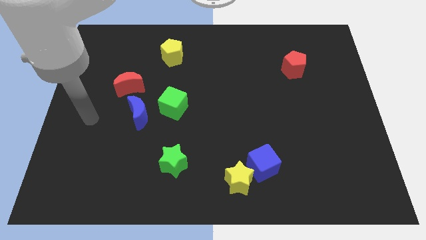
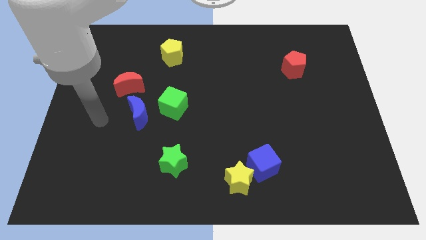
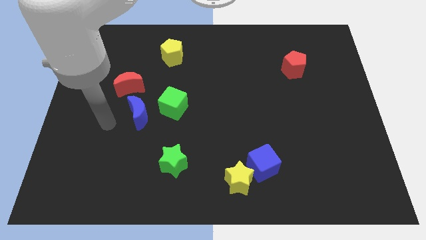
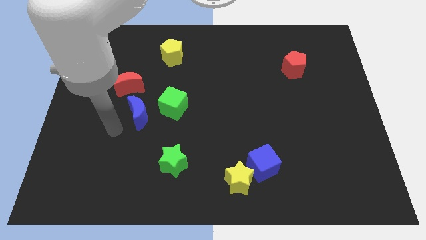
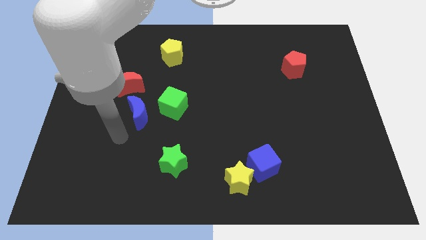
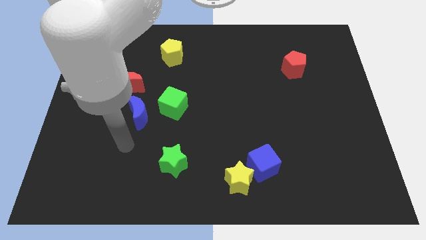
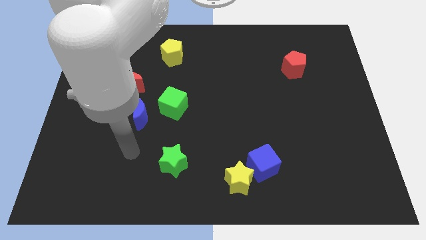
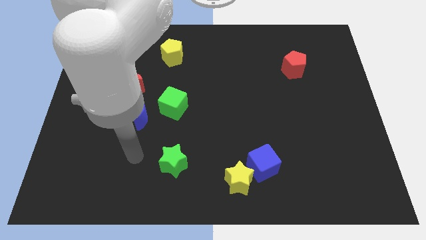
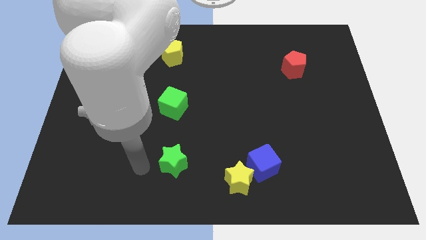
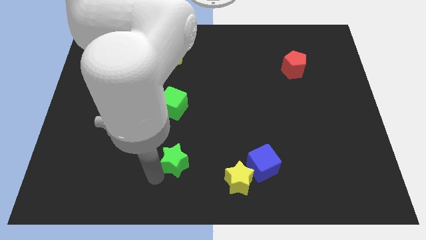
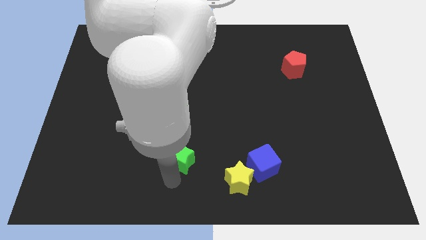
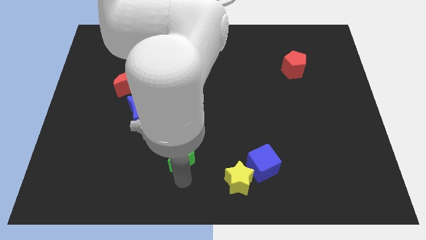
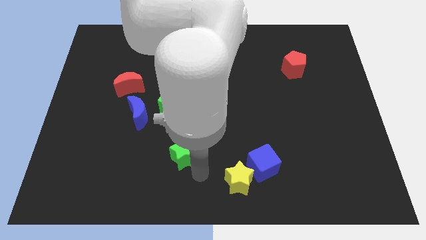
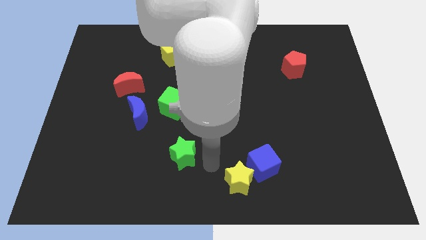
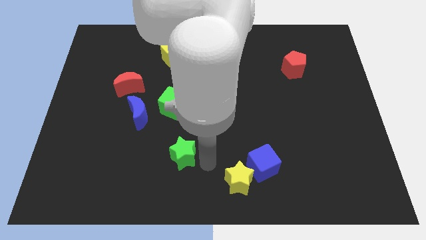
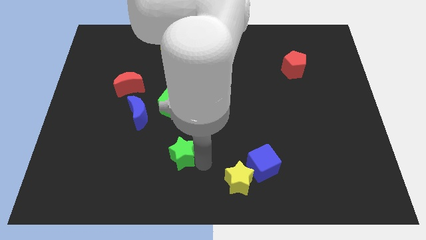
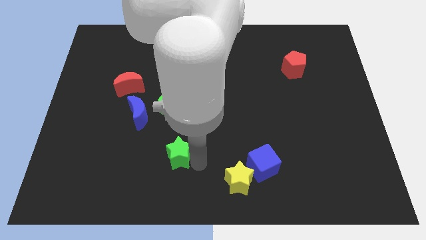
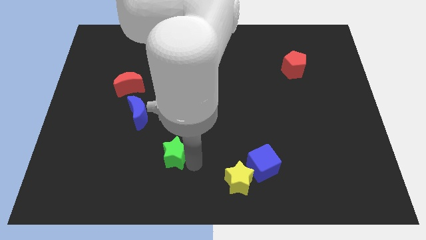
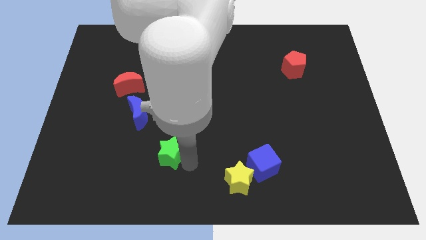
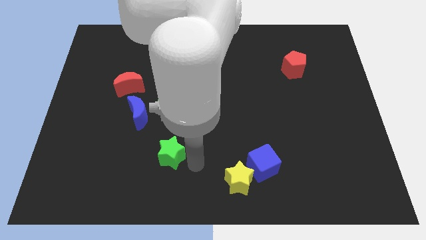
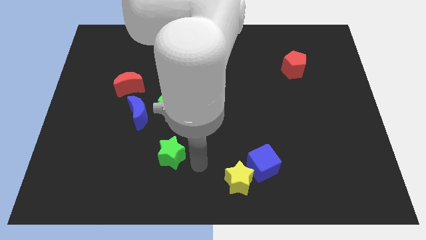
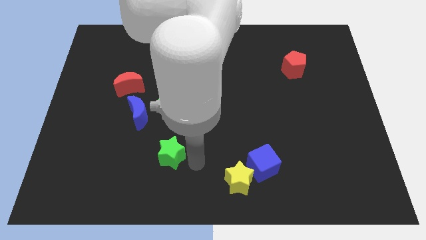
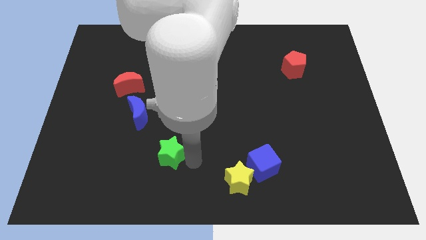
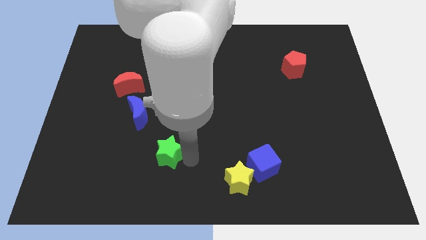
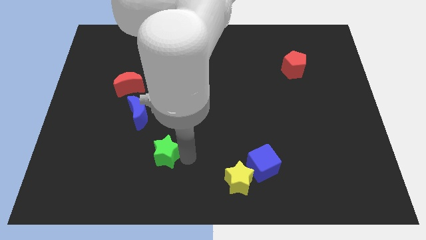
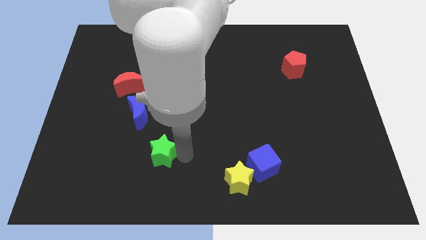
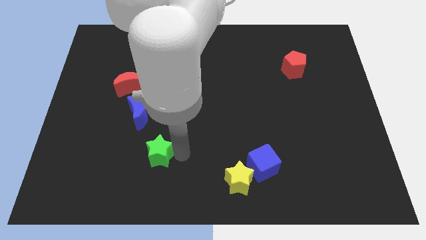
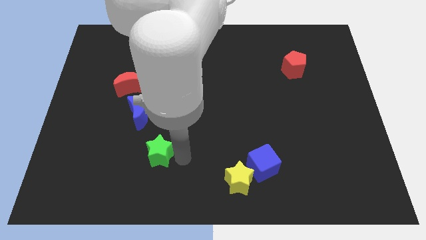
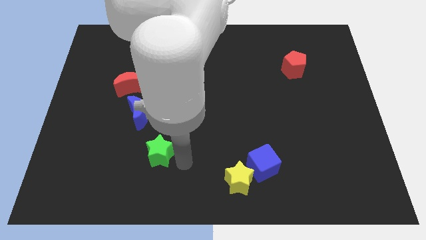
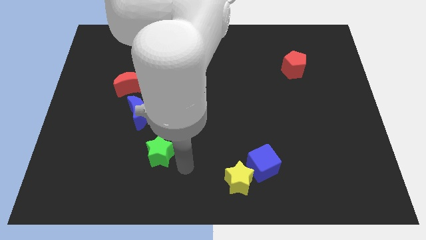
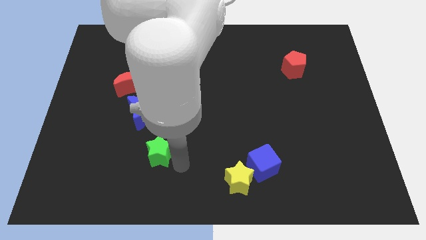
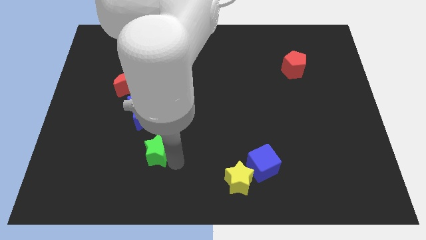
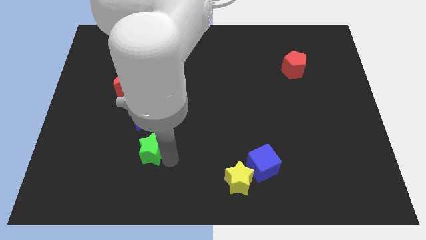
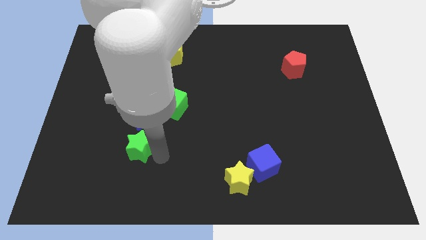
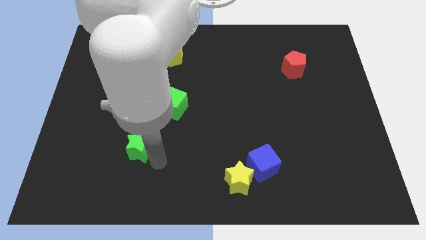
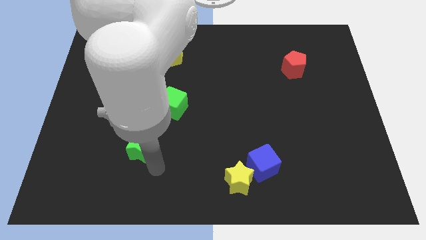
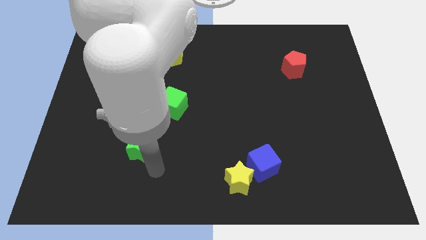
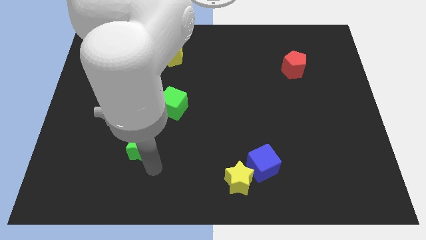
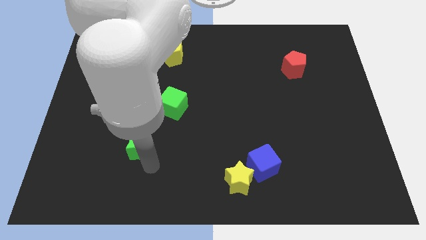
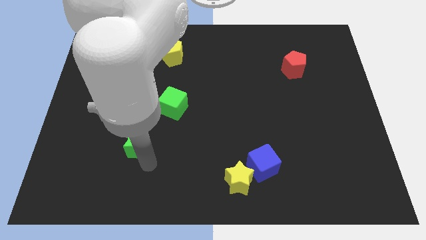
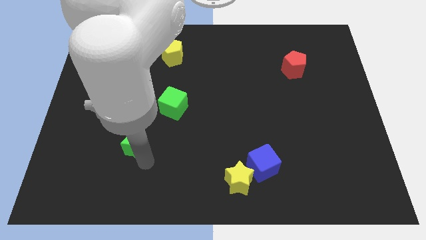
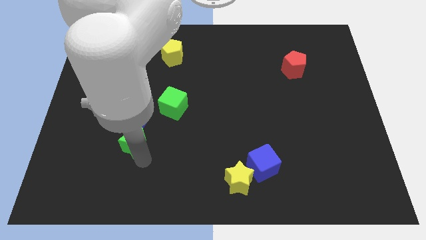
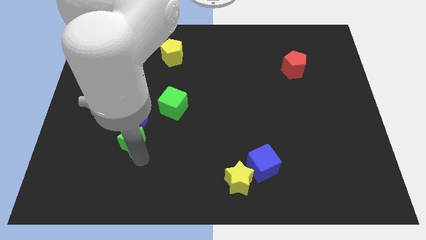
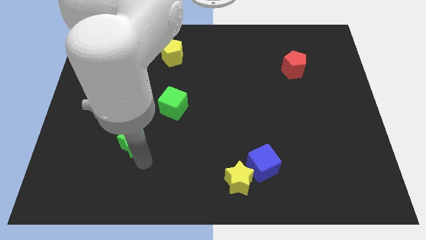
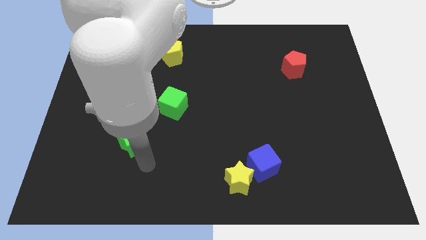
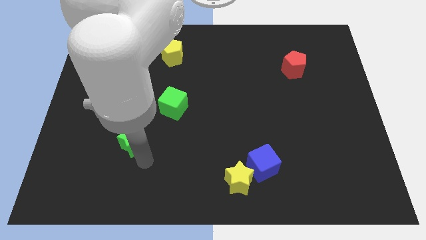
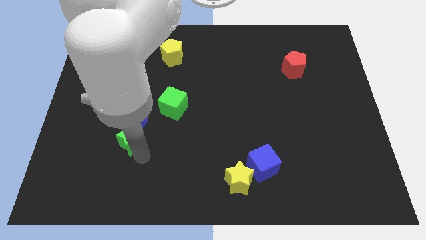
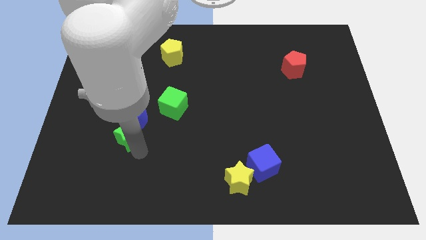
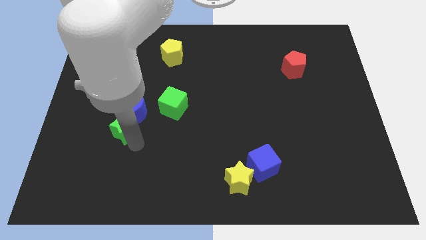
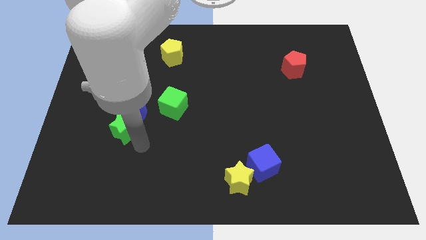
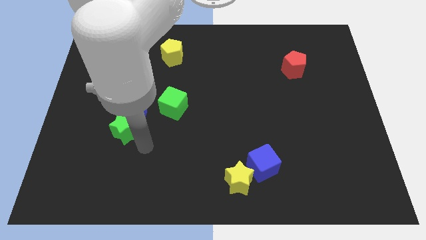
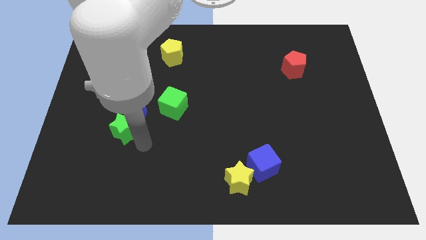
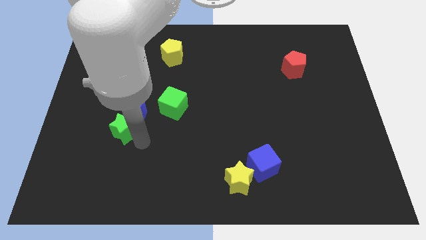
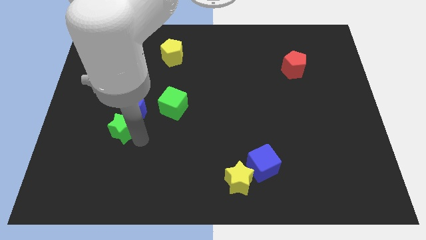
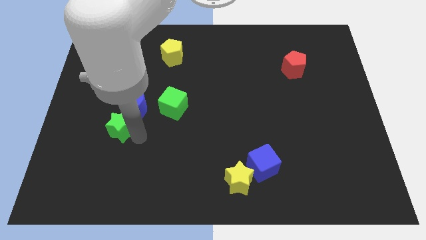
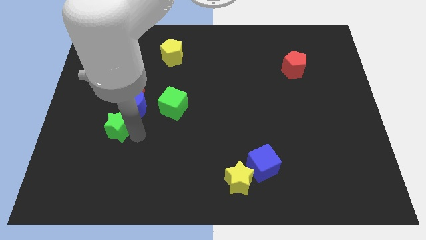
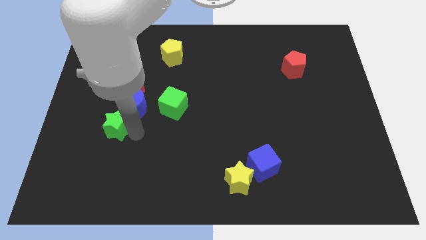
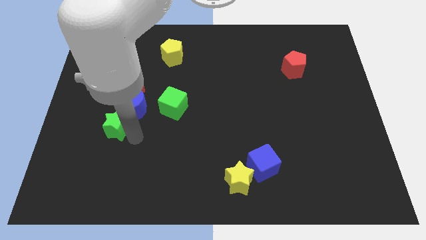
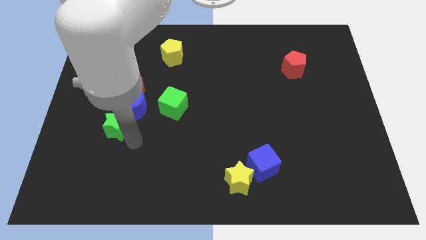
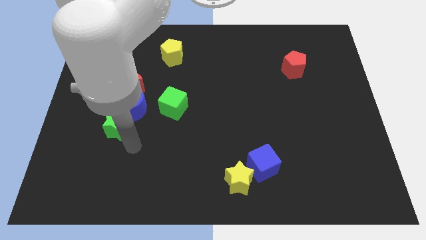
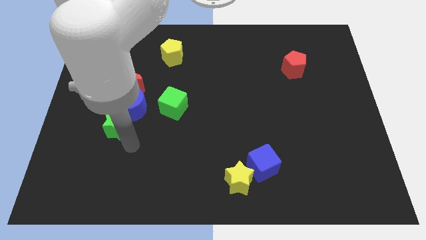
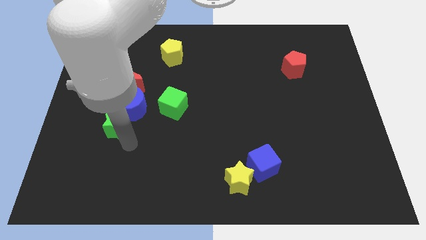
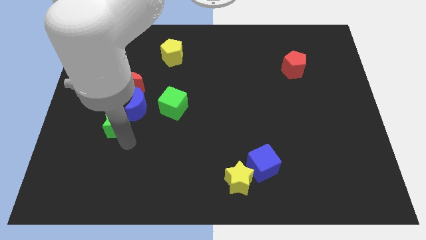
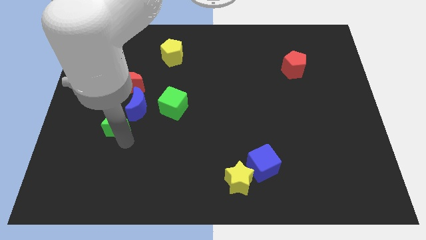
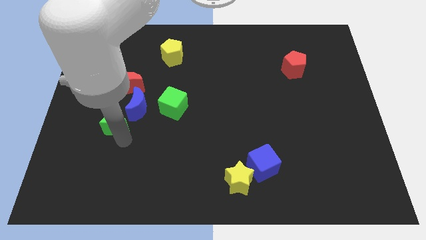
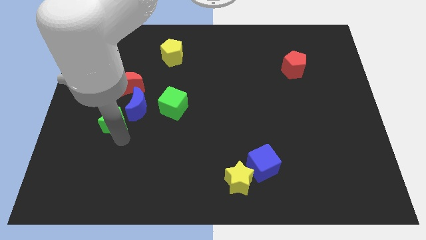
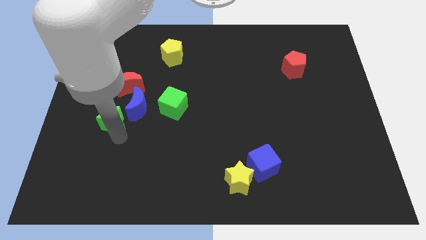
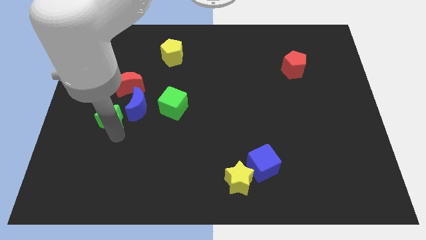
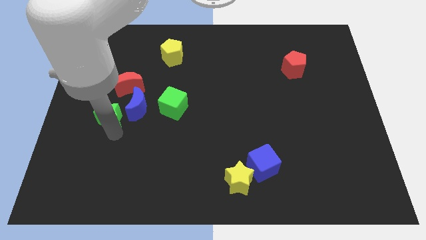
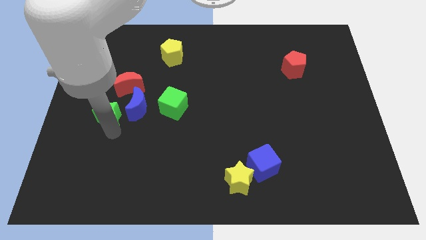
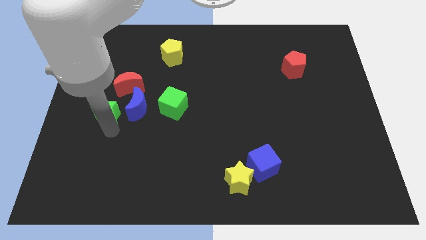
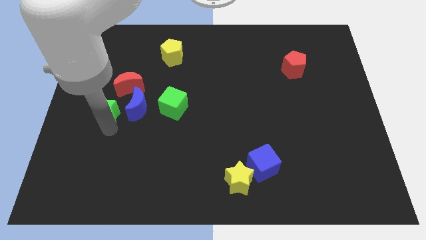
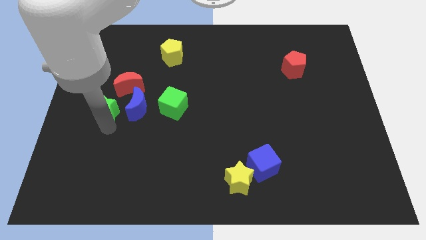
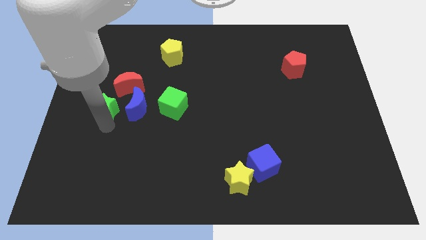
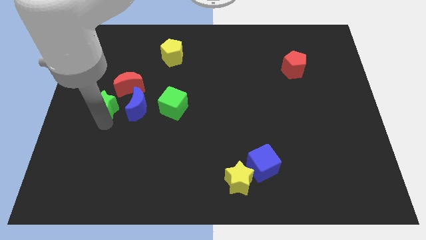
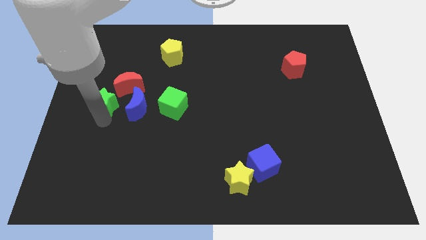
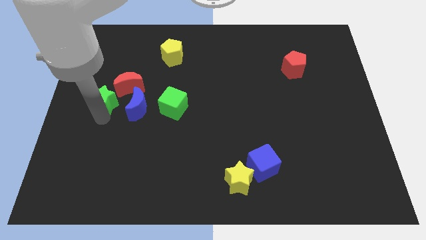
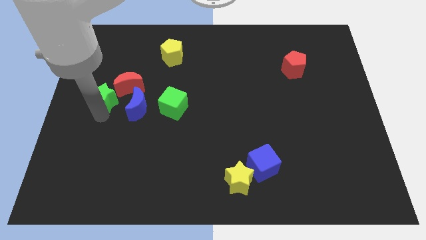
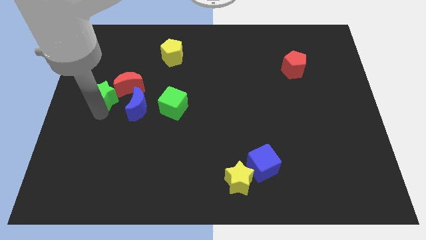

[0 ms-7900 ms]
push the green star close to the red moon
